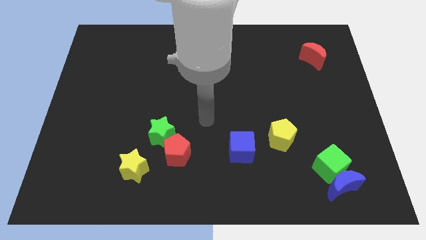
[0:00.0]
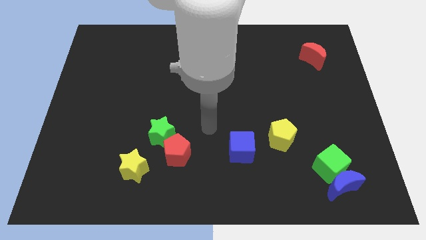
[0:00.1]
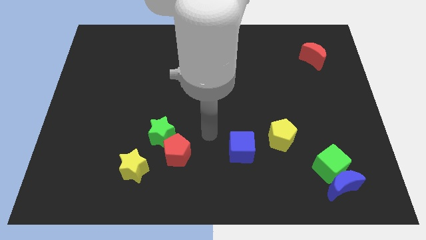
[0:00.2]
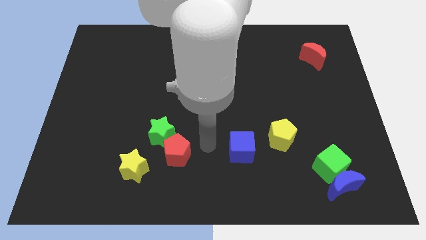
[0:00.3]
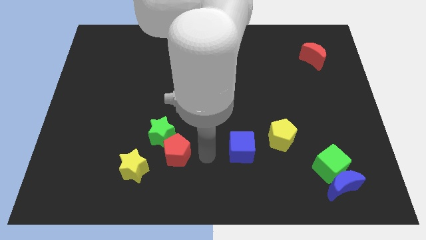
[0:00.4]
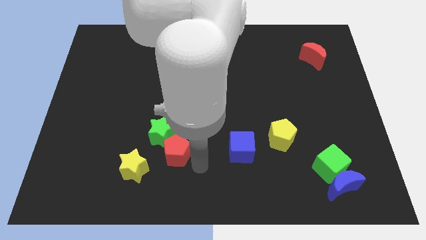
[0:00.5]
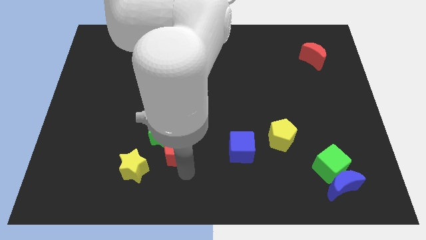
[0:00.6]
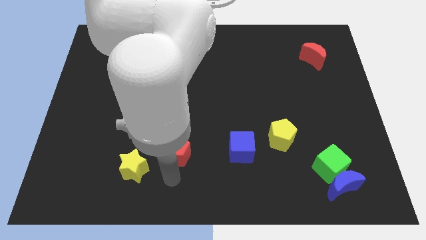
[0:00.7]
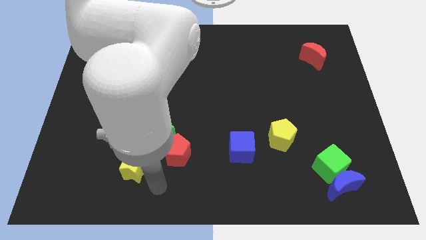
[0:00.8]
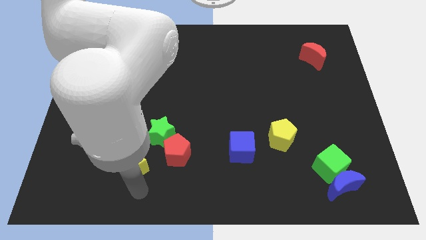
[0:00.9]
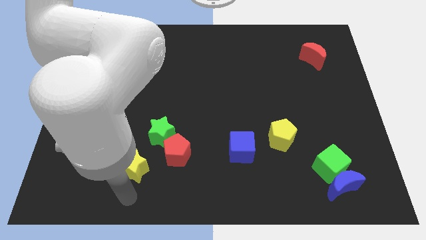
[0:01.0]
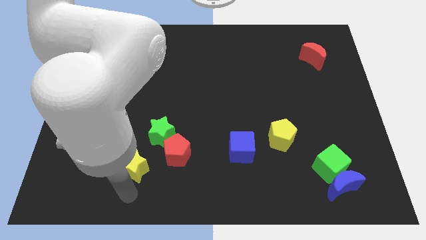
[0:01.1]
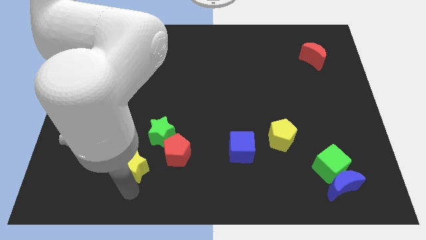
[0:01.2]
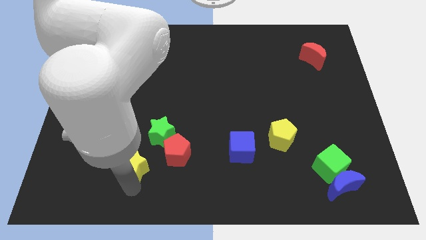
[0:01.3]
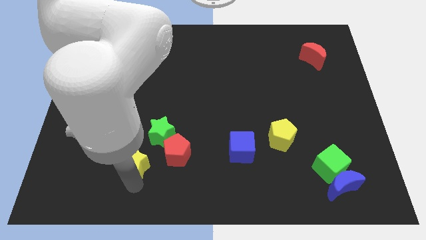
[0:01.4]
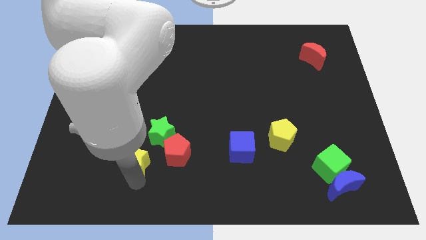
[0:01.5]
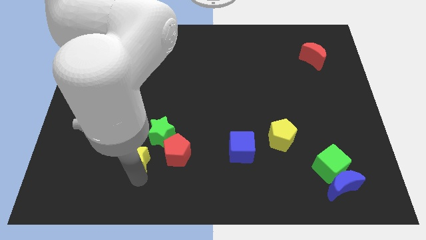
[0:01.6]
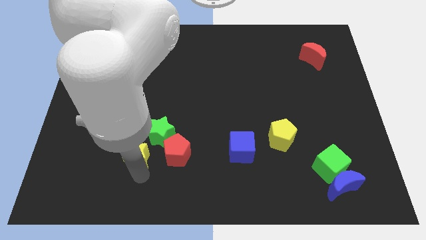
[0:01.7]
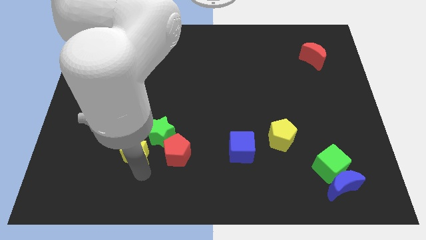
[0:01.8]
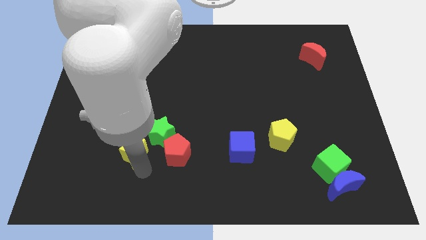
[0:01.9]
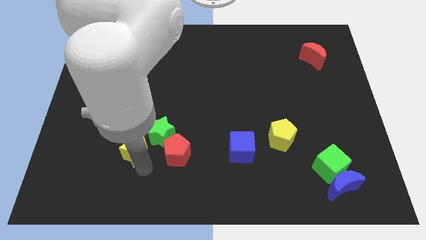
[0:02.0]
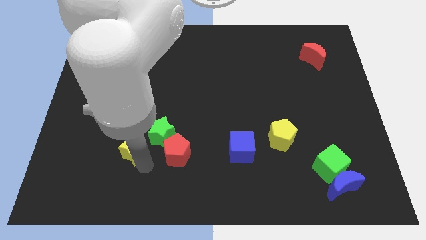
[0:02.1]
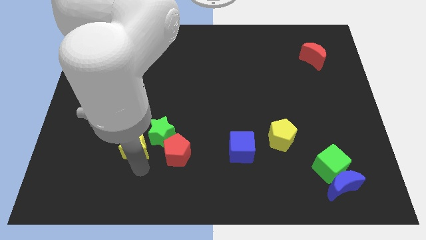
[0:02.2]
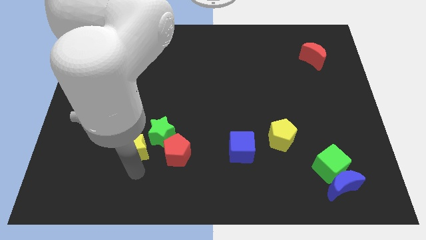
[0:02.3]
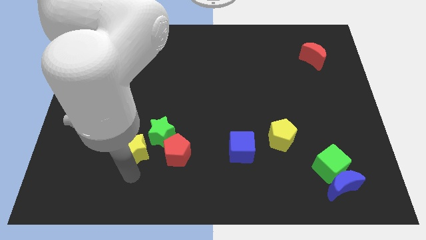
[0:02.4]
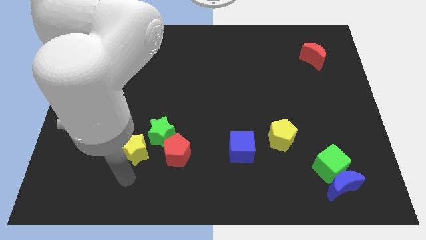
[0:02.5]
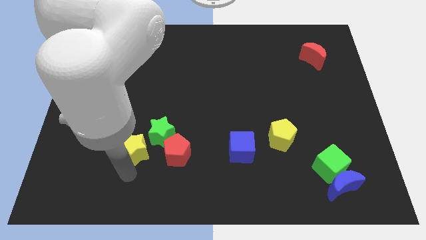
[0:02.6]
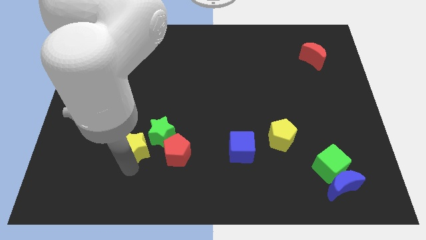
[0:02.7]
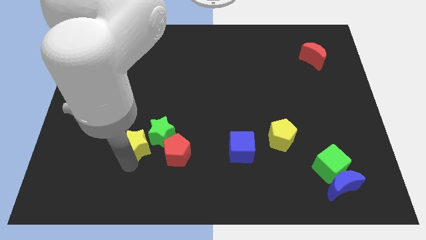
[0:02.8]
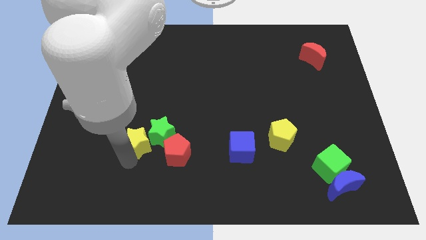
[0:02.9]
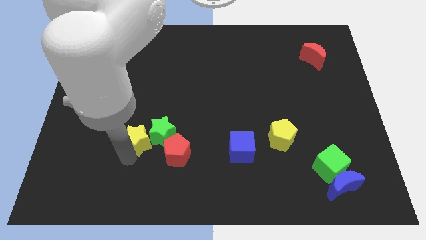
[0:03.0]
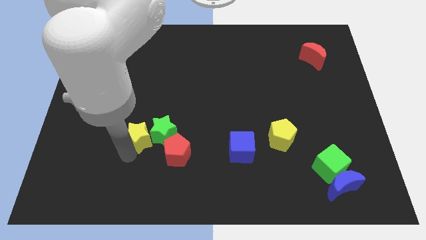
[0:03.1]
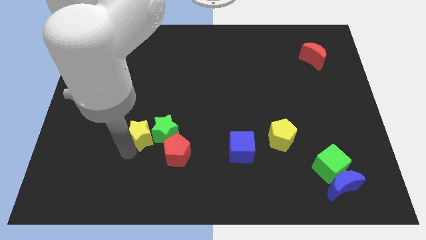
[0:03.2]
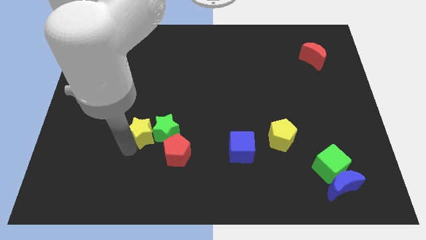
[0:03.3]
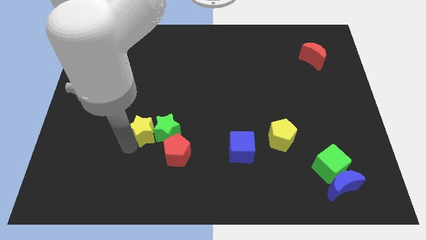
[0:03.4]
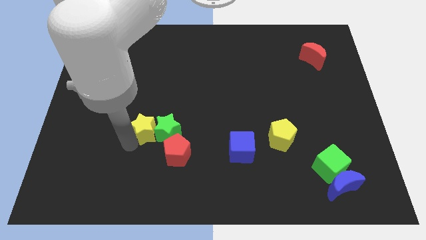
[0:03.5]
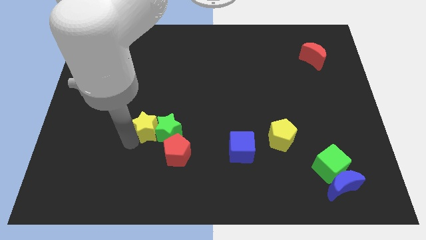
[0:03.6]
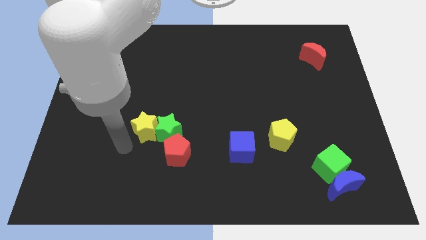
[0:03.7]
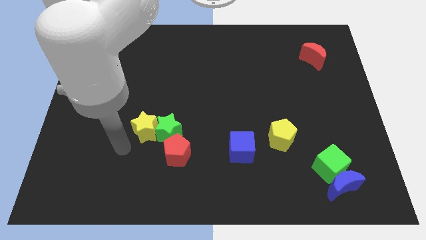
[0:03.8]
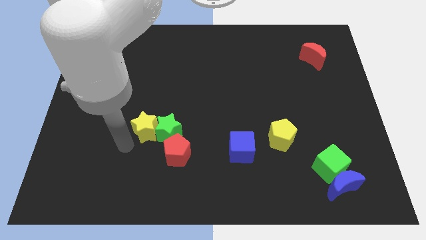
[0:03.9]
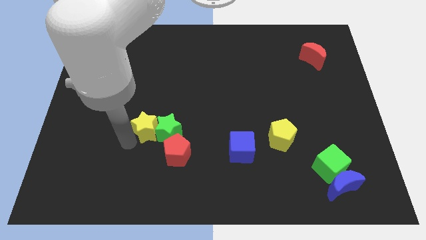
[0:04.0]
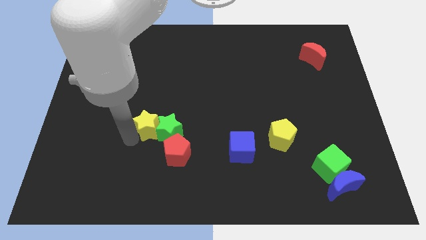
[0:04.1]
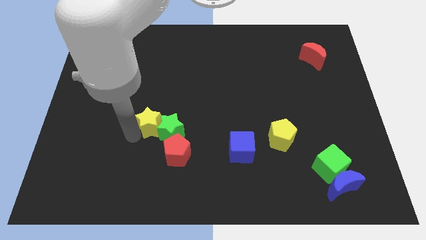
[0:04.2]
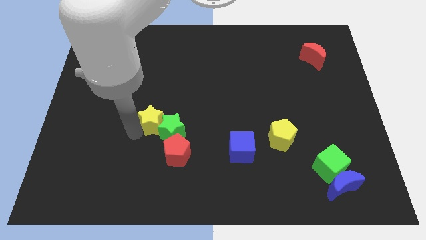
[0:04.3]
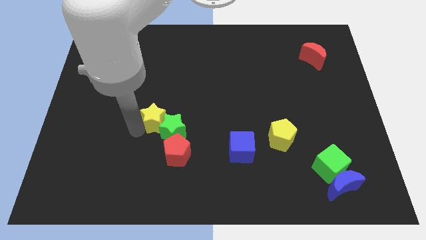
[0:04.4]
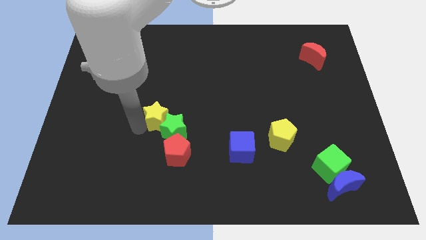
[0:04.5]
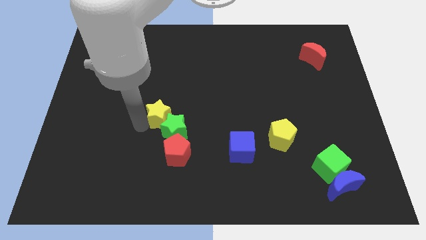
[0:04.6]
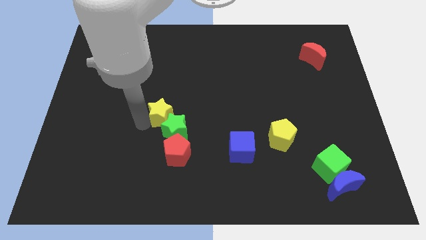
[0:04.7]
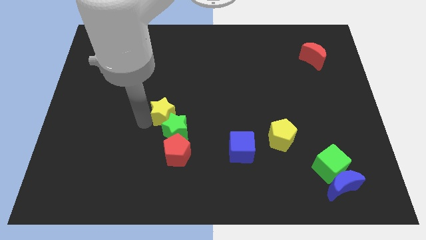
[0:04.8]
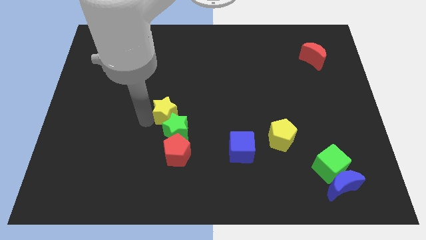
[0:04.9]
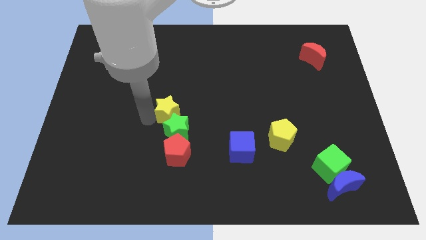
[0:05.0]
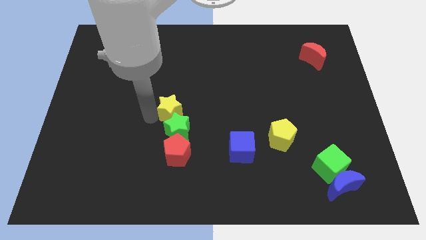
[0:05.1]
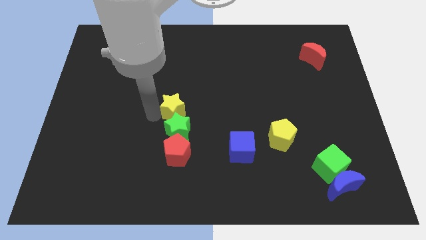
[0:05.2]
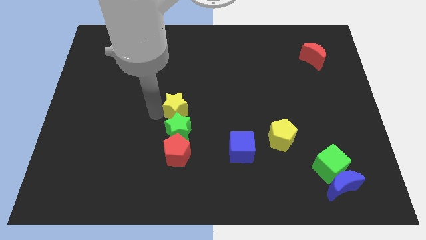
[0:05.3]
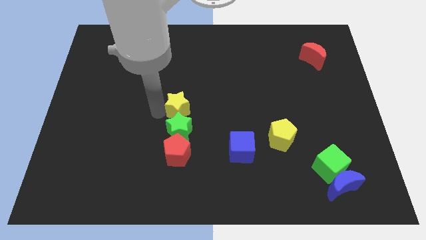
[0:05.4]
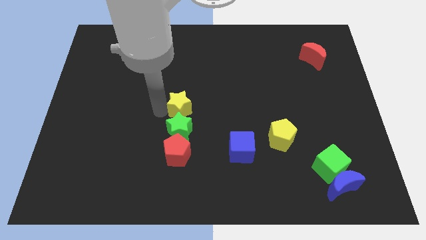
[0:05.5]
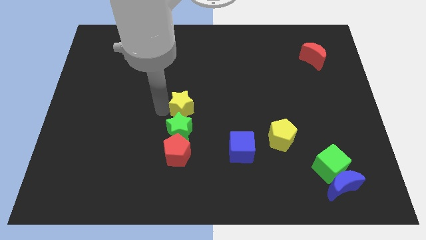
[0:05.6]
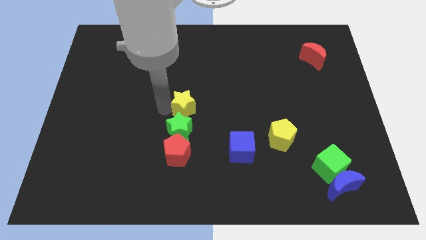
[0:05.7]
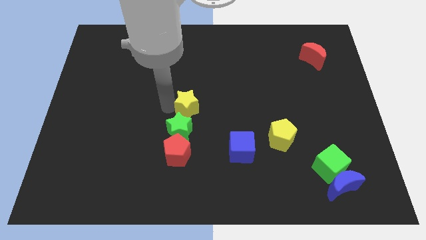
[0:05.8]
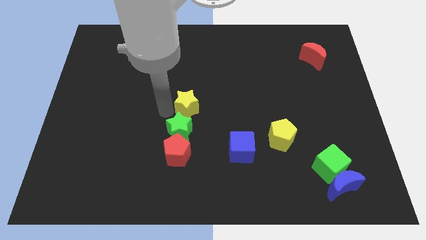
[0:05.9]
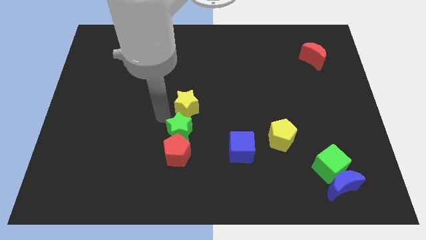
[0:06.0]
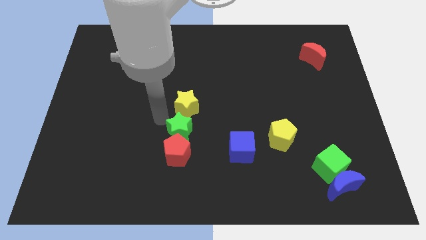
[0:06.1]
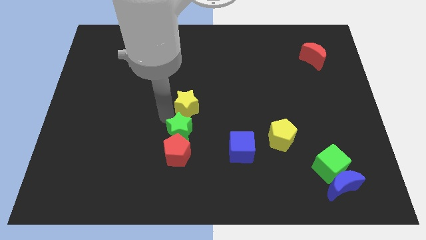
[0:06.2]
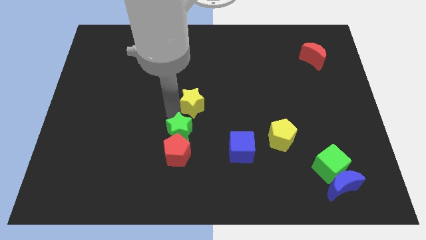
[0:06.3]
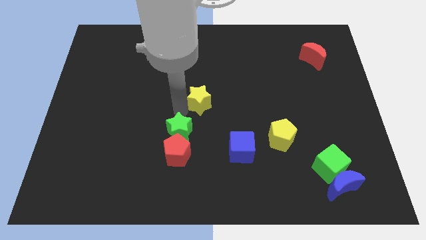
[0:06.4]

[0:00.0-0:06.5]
slide the yellow star upwards and to the right

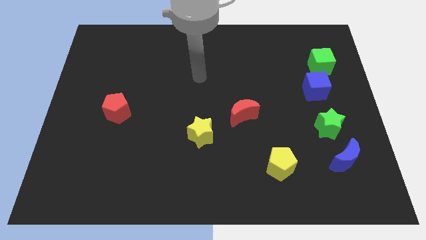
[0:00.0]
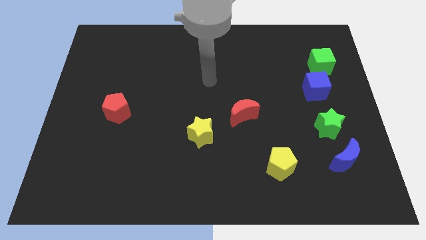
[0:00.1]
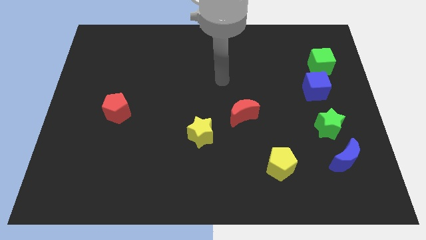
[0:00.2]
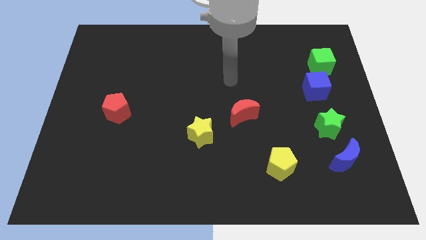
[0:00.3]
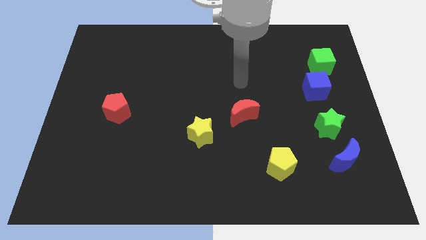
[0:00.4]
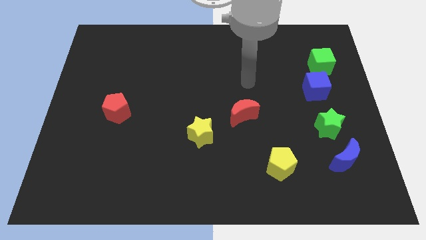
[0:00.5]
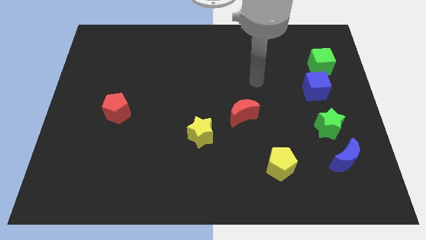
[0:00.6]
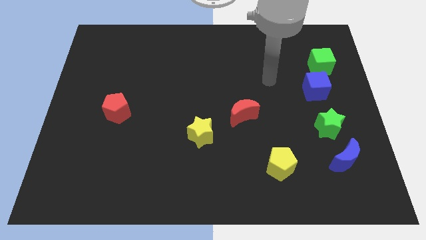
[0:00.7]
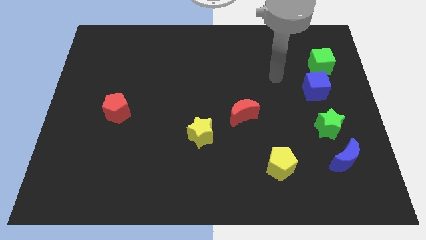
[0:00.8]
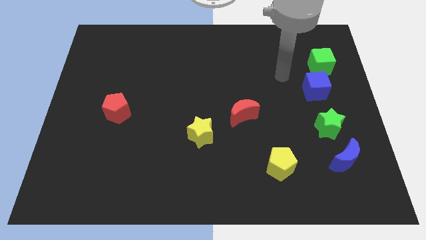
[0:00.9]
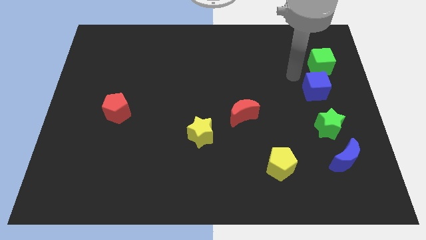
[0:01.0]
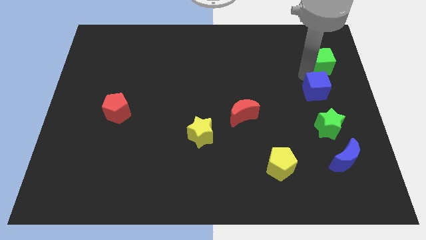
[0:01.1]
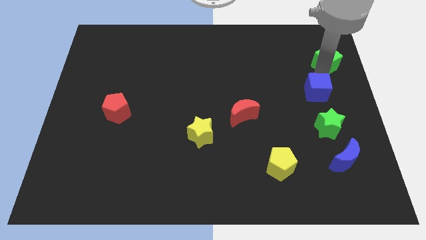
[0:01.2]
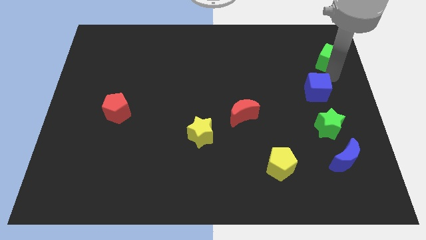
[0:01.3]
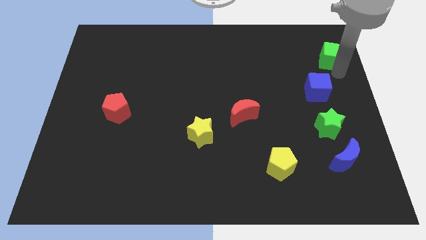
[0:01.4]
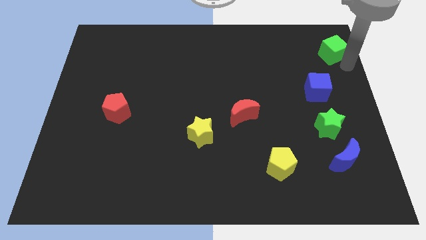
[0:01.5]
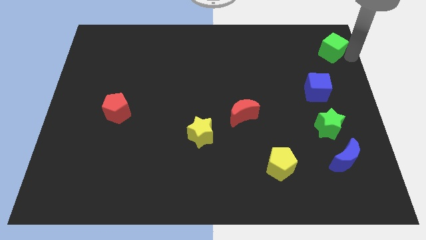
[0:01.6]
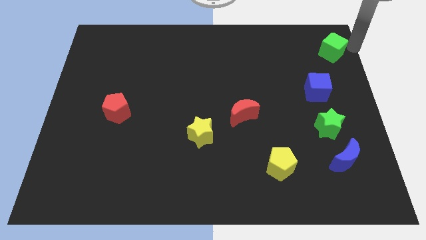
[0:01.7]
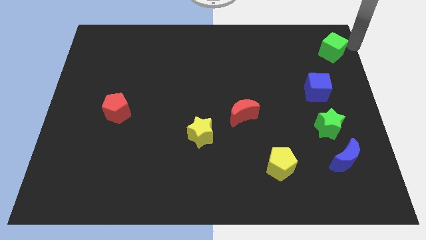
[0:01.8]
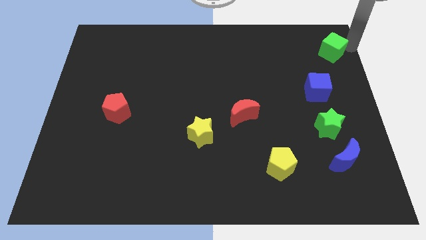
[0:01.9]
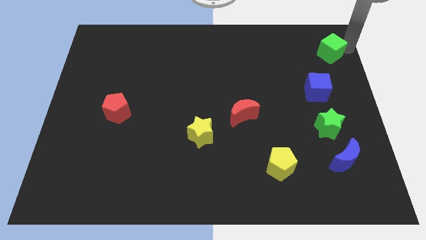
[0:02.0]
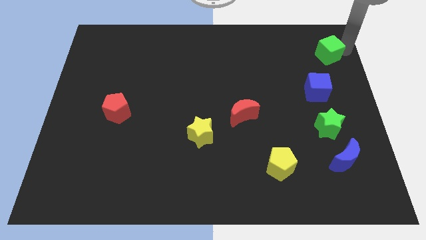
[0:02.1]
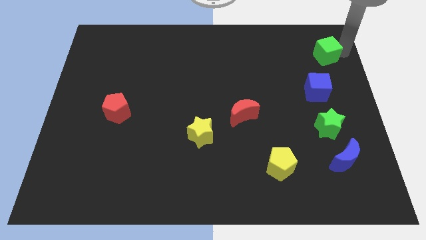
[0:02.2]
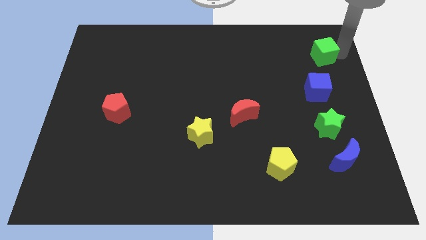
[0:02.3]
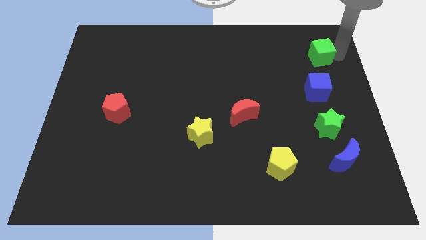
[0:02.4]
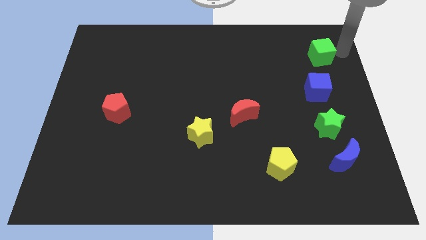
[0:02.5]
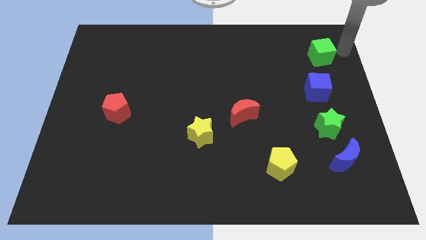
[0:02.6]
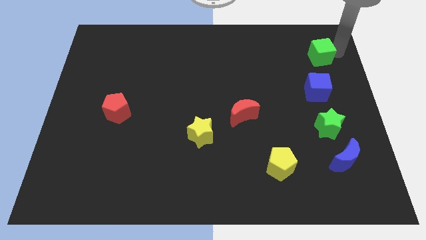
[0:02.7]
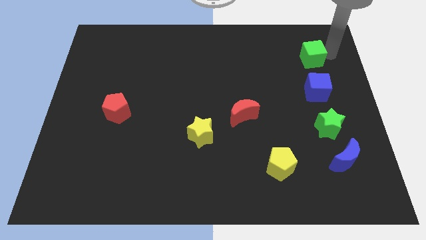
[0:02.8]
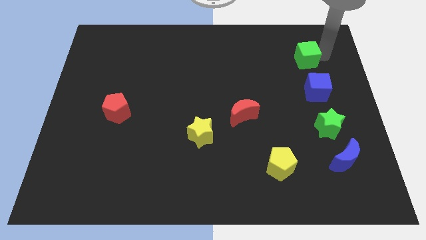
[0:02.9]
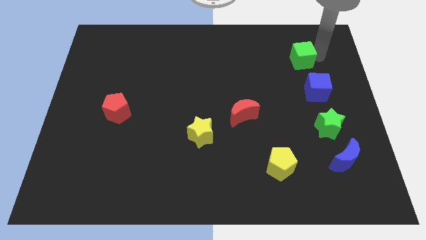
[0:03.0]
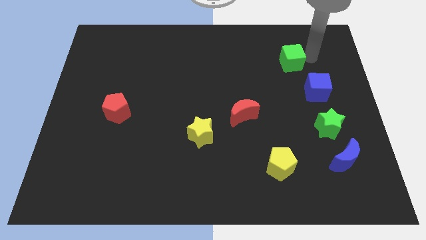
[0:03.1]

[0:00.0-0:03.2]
slightly slide the green cube to the left
